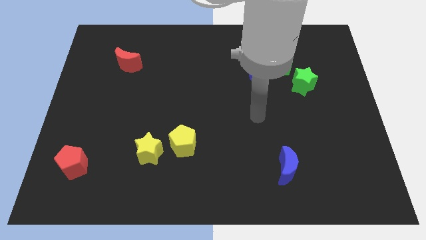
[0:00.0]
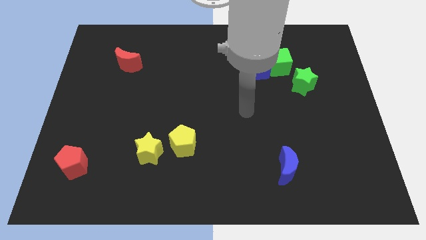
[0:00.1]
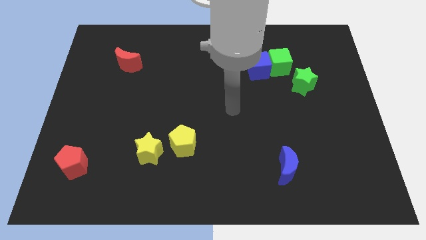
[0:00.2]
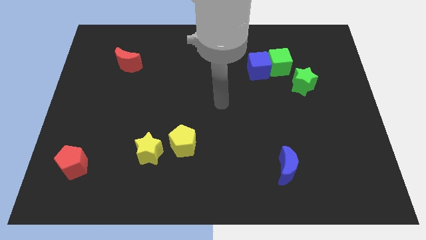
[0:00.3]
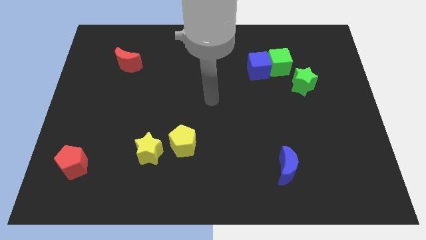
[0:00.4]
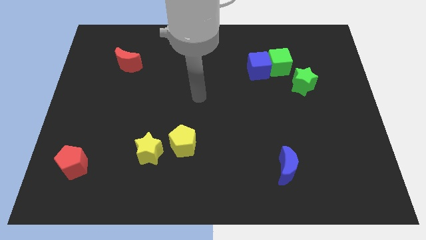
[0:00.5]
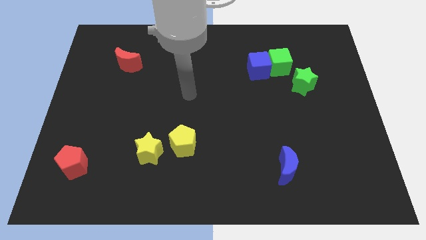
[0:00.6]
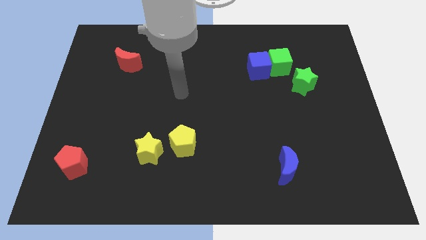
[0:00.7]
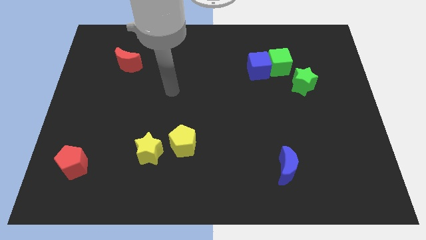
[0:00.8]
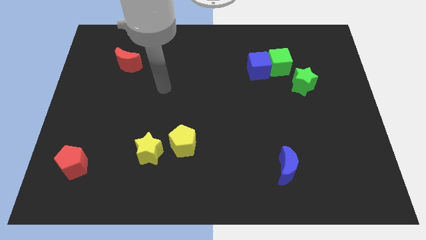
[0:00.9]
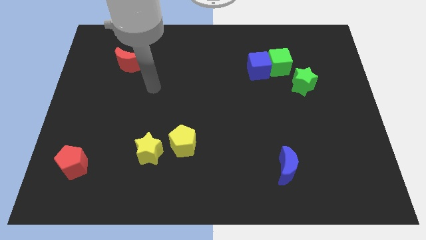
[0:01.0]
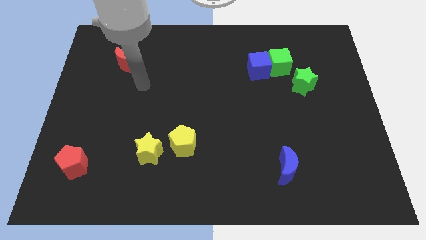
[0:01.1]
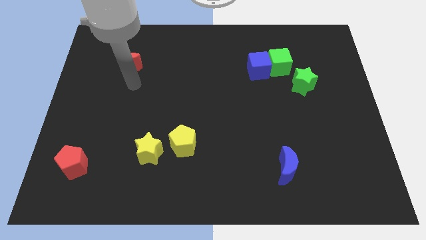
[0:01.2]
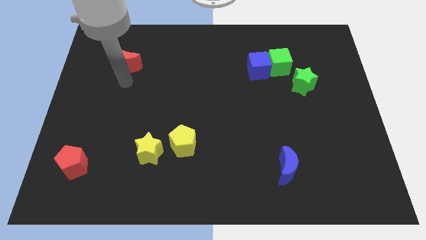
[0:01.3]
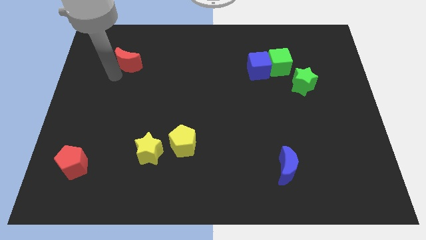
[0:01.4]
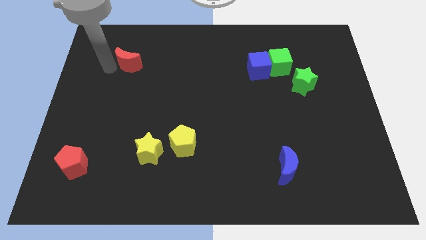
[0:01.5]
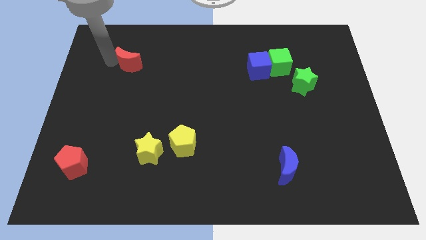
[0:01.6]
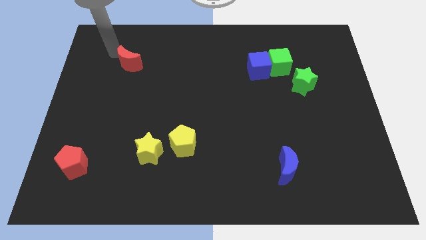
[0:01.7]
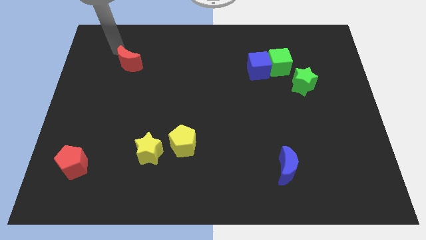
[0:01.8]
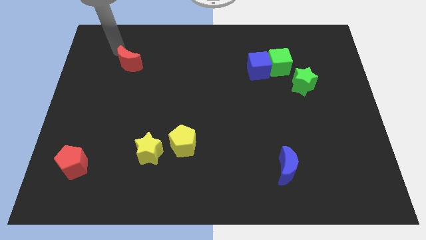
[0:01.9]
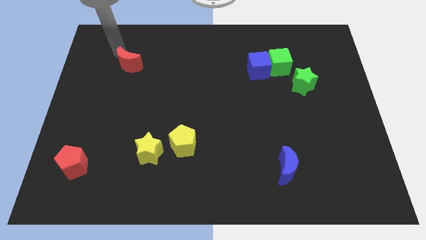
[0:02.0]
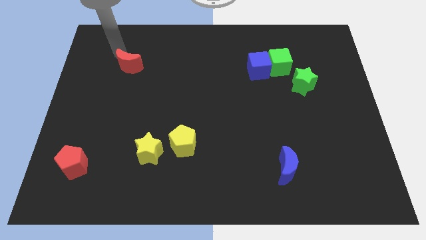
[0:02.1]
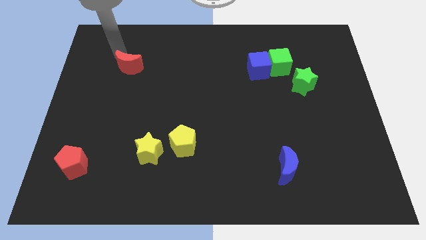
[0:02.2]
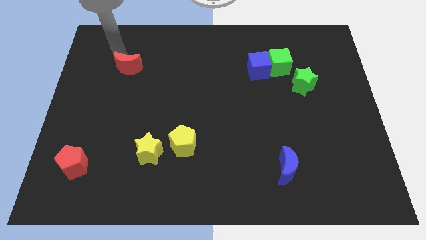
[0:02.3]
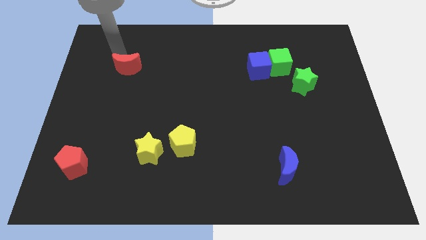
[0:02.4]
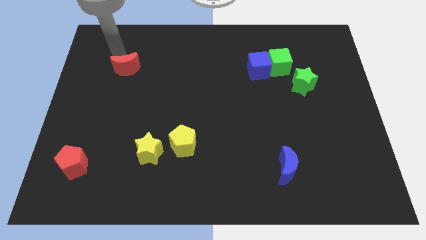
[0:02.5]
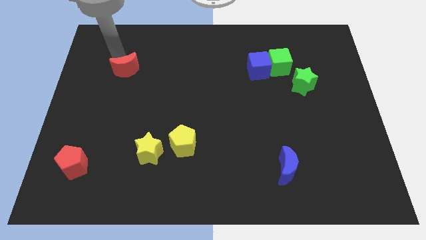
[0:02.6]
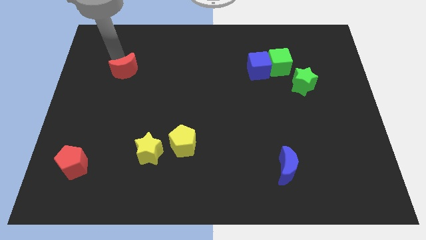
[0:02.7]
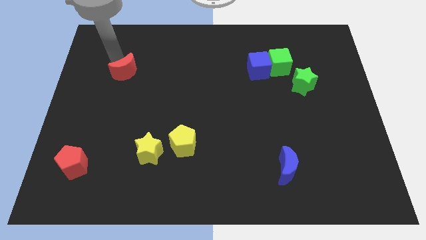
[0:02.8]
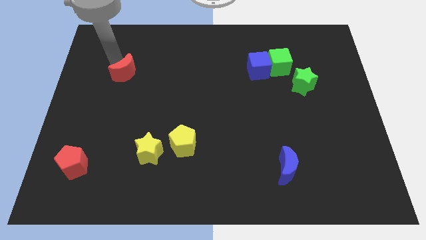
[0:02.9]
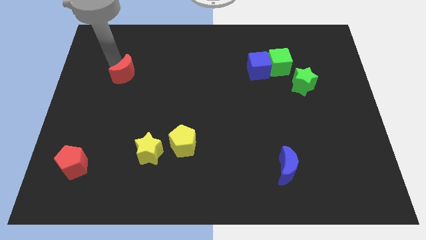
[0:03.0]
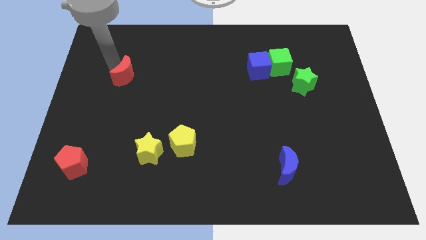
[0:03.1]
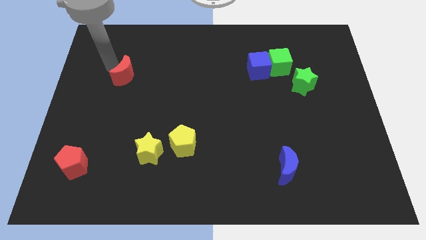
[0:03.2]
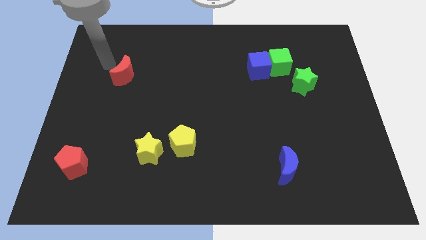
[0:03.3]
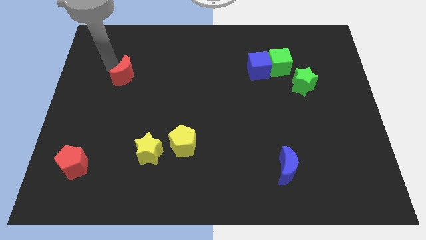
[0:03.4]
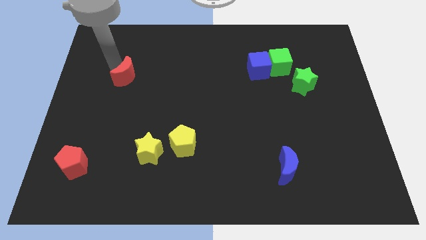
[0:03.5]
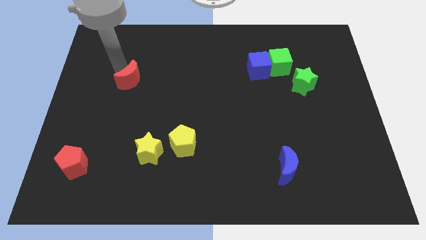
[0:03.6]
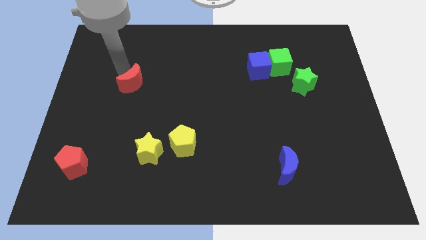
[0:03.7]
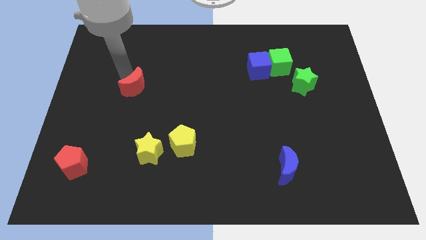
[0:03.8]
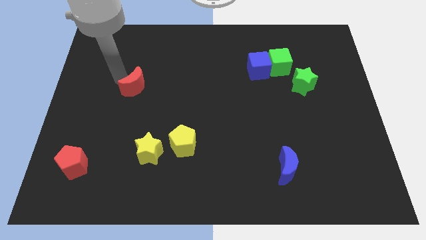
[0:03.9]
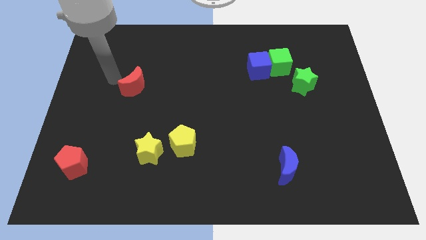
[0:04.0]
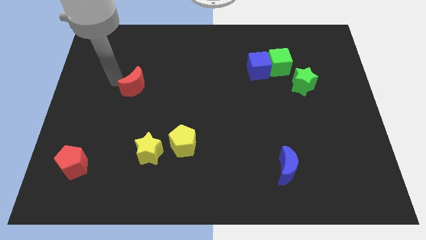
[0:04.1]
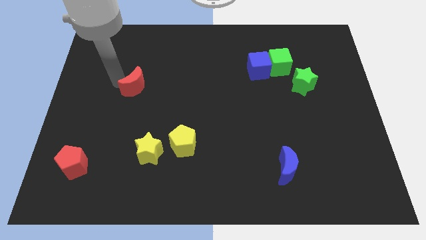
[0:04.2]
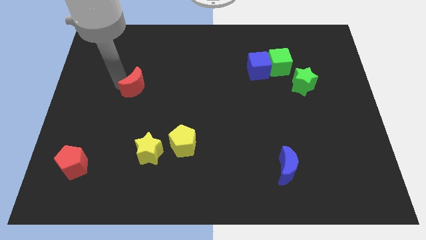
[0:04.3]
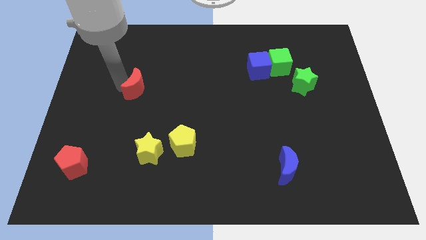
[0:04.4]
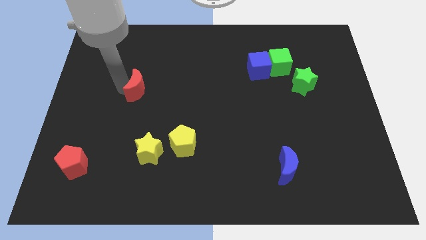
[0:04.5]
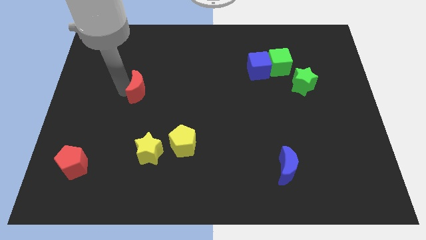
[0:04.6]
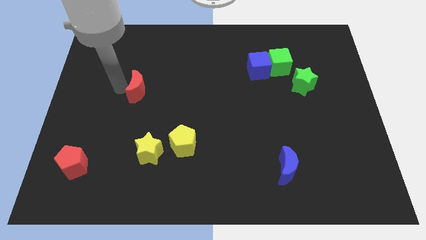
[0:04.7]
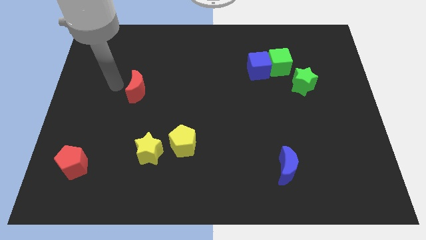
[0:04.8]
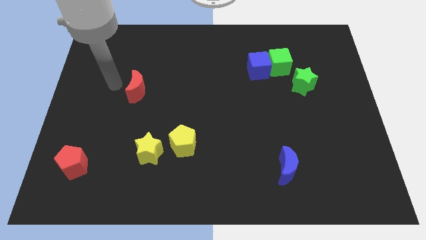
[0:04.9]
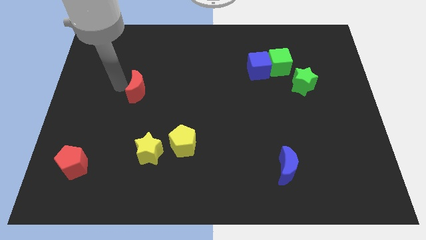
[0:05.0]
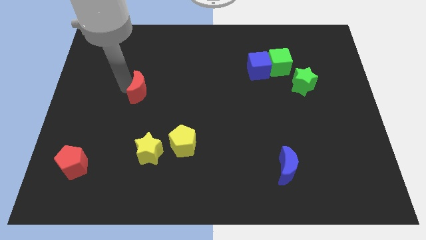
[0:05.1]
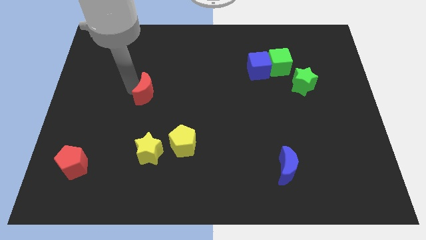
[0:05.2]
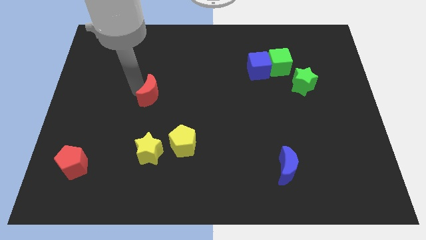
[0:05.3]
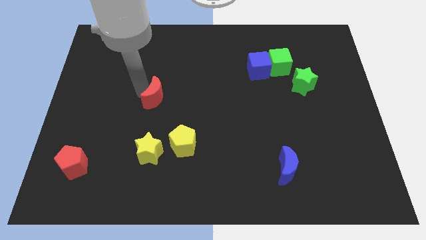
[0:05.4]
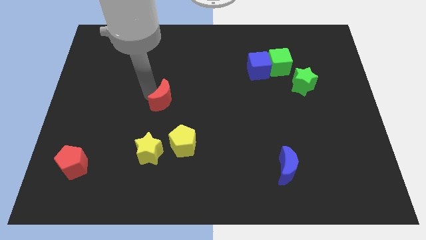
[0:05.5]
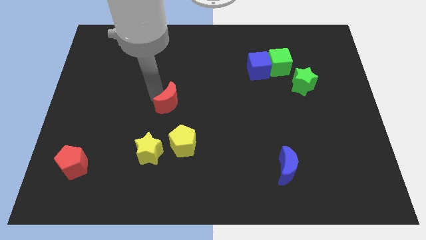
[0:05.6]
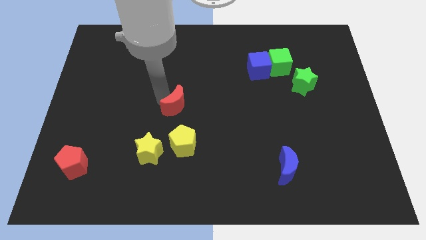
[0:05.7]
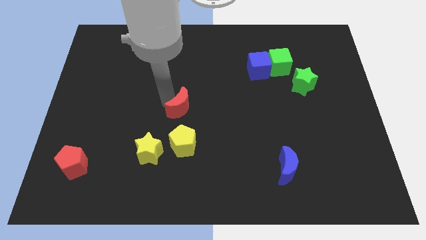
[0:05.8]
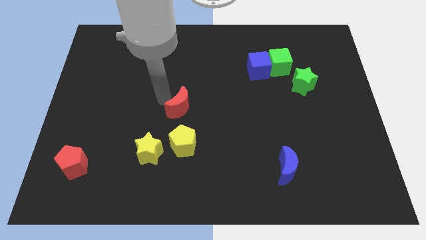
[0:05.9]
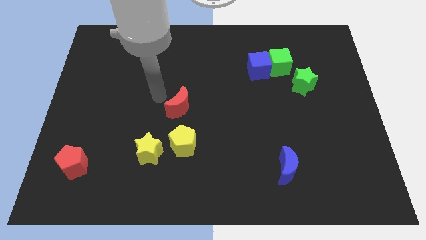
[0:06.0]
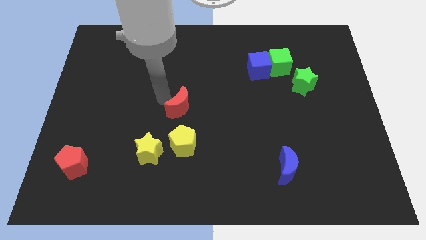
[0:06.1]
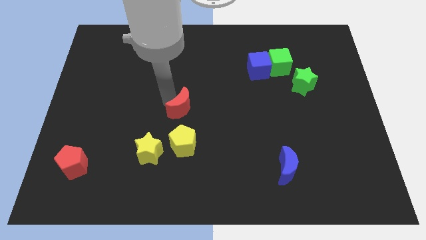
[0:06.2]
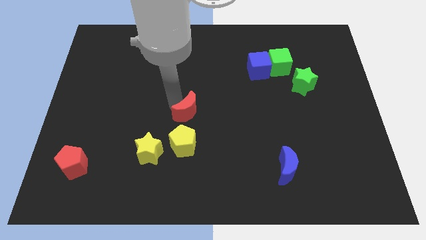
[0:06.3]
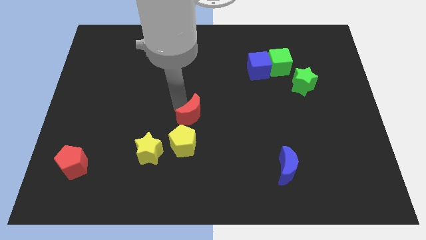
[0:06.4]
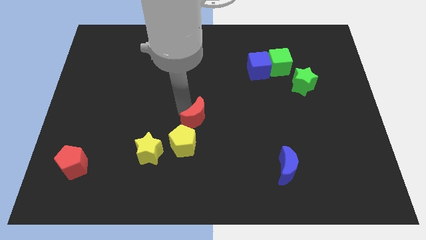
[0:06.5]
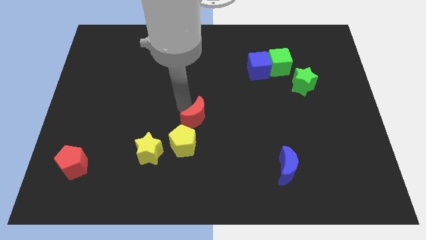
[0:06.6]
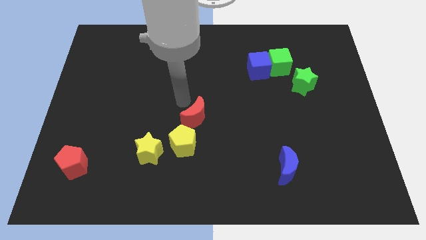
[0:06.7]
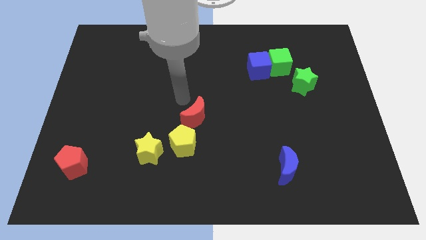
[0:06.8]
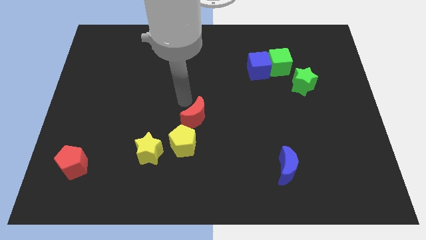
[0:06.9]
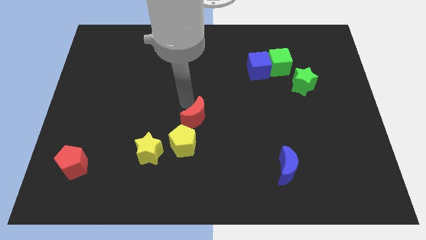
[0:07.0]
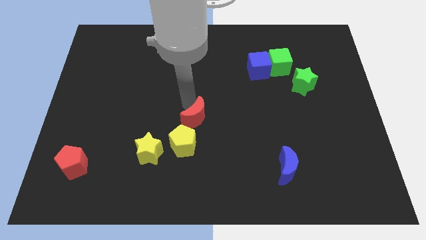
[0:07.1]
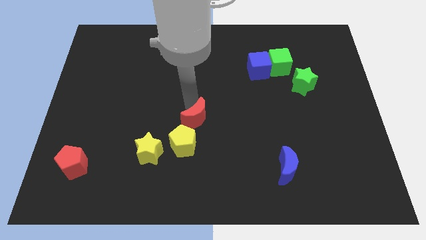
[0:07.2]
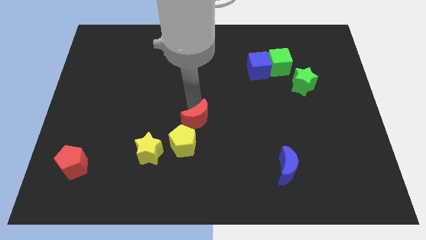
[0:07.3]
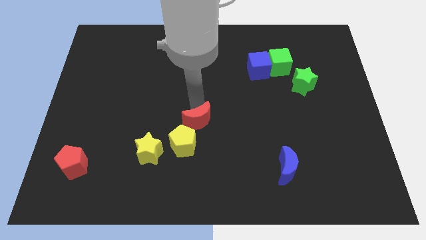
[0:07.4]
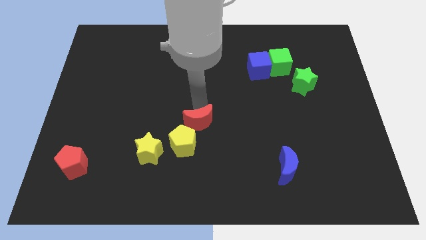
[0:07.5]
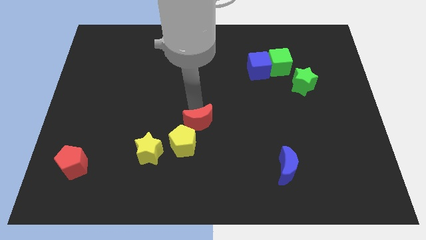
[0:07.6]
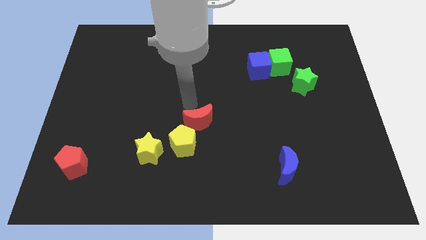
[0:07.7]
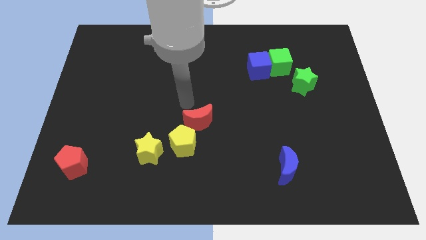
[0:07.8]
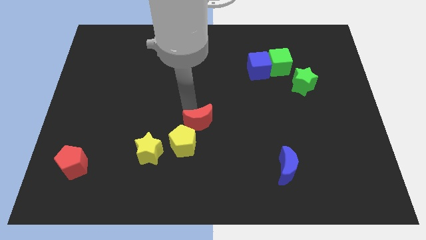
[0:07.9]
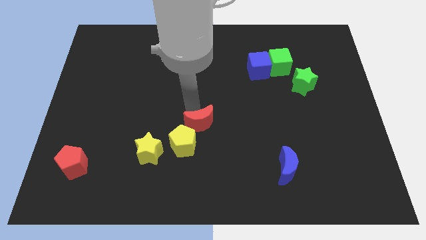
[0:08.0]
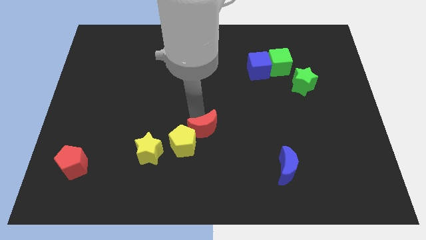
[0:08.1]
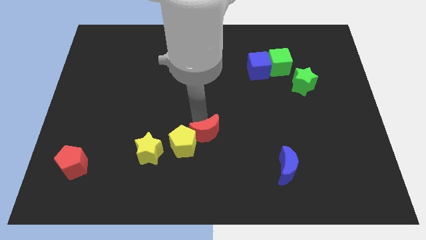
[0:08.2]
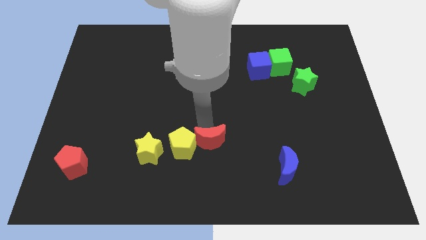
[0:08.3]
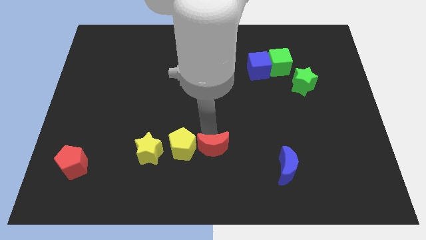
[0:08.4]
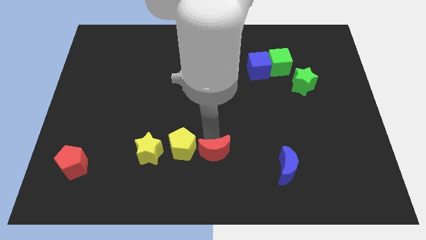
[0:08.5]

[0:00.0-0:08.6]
push the red moon to the bottom
